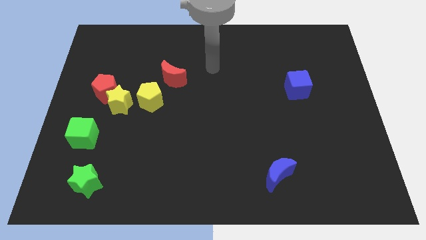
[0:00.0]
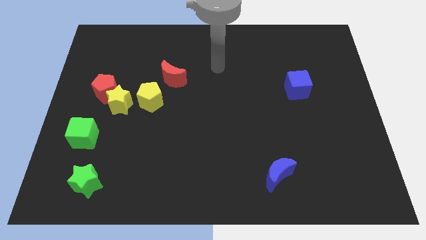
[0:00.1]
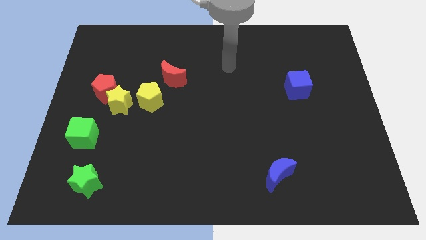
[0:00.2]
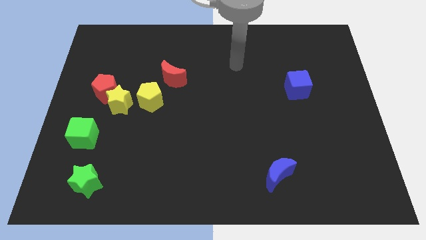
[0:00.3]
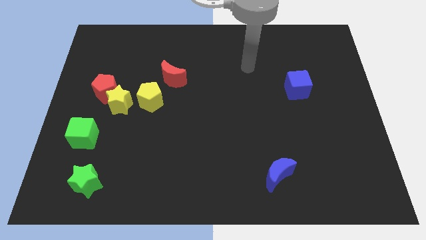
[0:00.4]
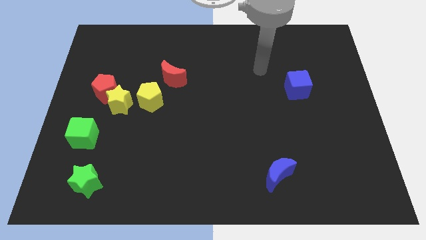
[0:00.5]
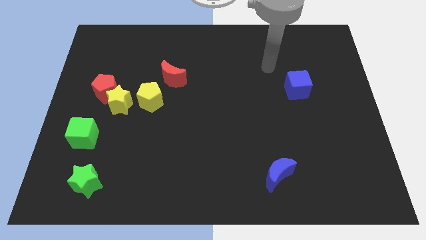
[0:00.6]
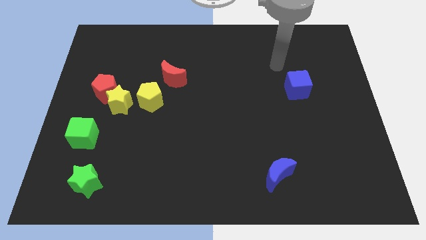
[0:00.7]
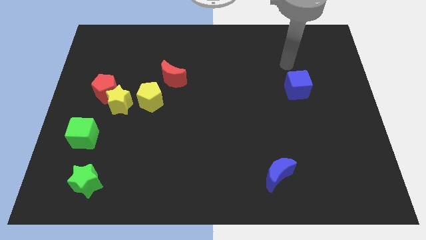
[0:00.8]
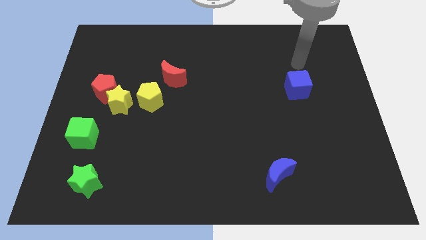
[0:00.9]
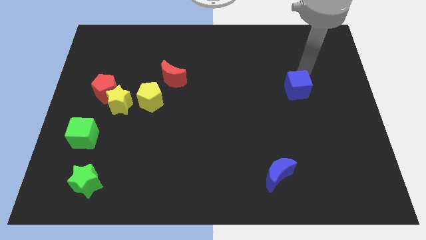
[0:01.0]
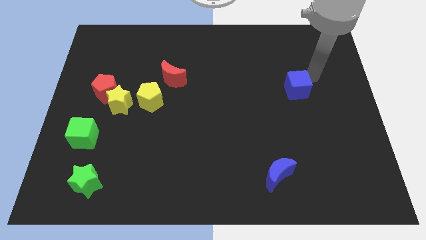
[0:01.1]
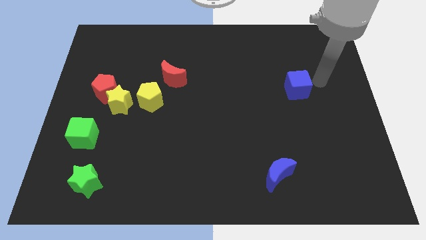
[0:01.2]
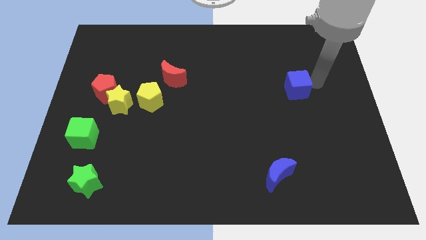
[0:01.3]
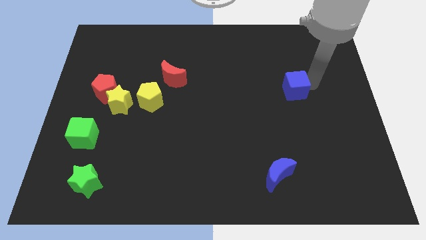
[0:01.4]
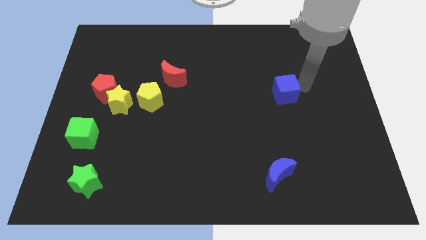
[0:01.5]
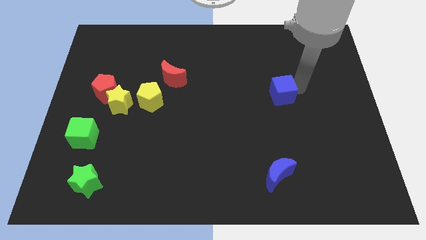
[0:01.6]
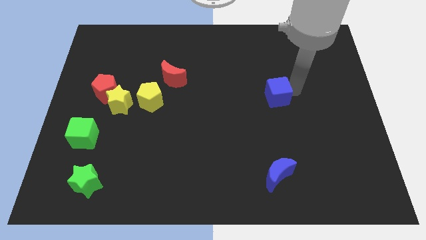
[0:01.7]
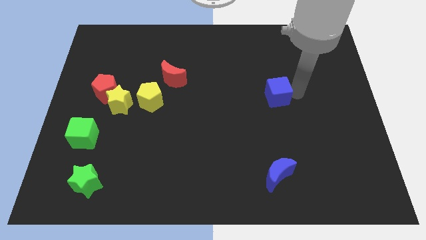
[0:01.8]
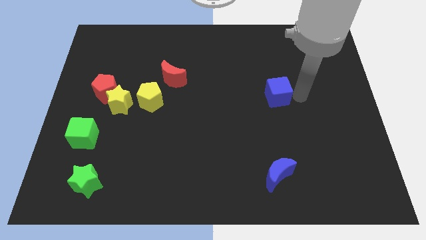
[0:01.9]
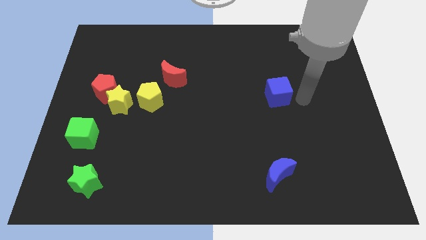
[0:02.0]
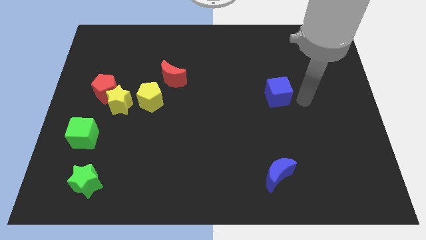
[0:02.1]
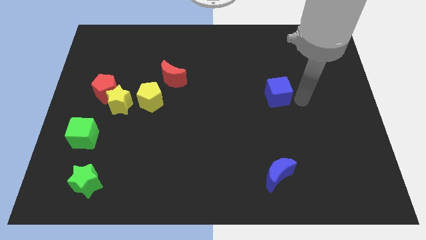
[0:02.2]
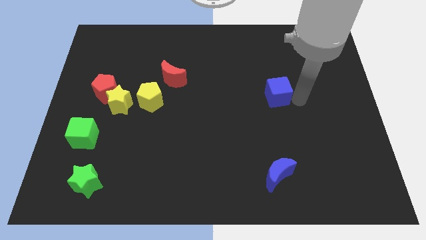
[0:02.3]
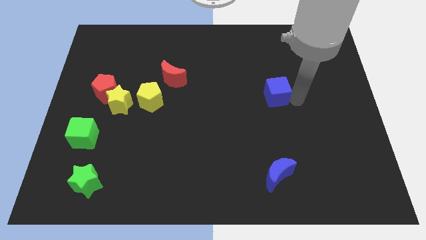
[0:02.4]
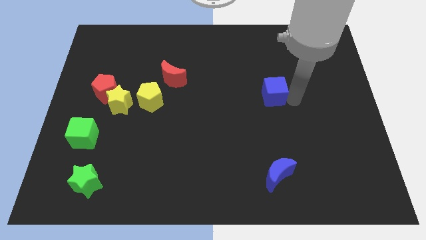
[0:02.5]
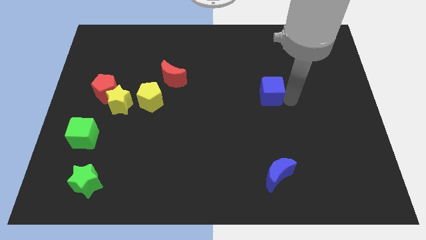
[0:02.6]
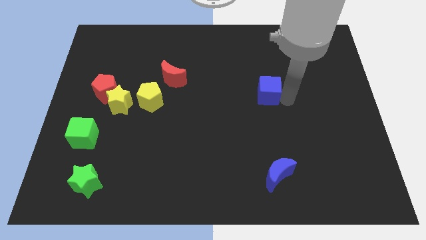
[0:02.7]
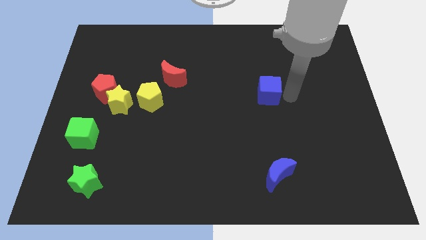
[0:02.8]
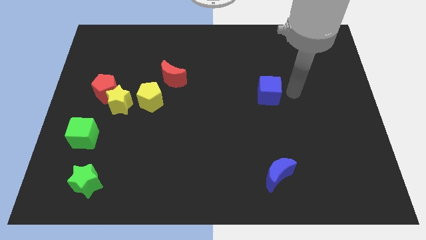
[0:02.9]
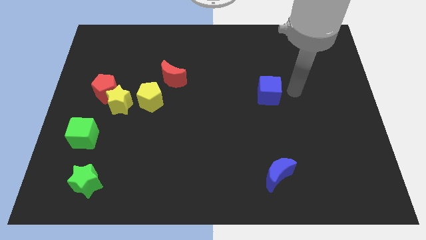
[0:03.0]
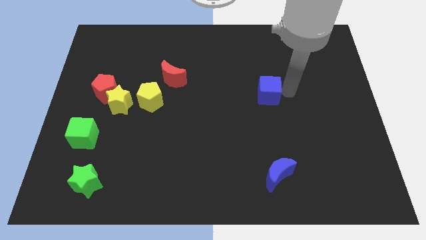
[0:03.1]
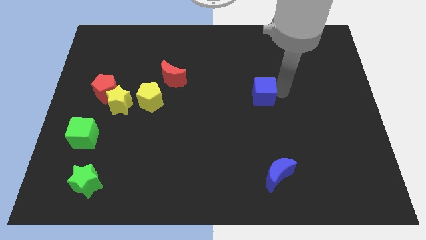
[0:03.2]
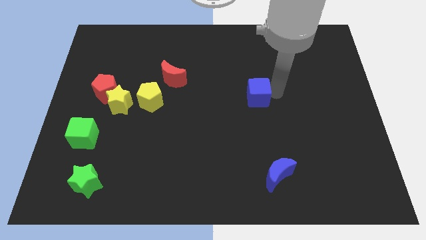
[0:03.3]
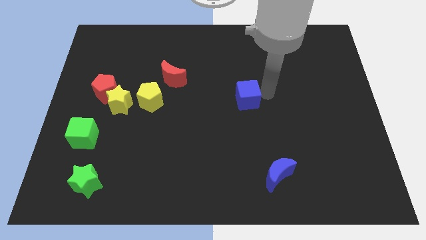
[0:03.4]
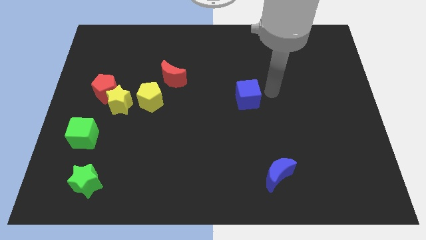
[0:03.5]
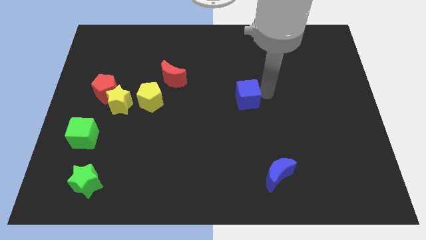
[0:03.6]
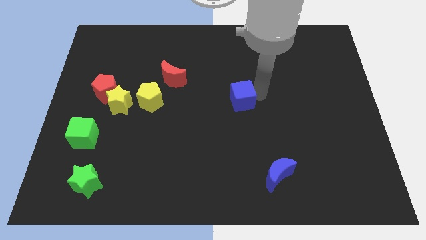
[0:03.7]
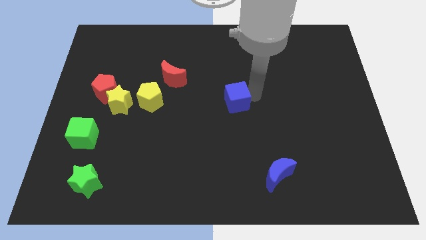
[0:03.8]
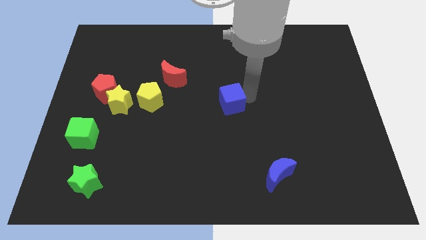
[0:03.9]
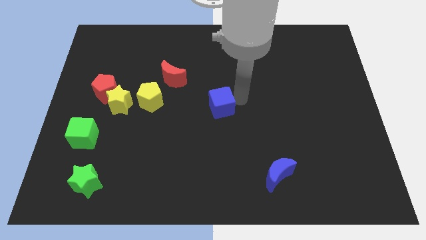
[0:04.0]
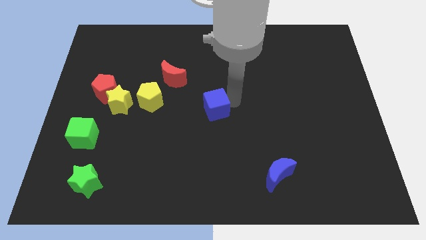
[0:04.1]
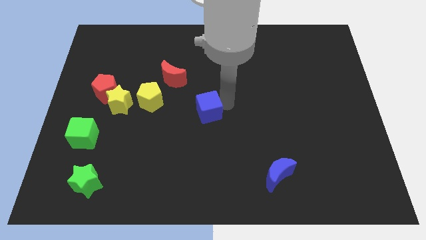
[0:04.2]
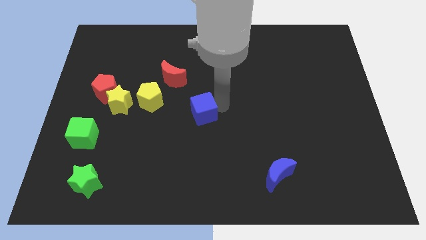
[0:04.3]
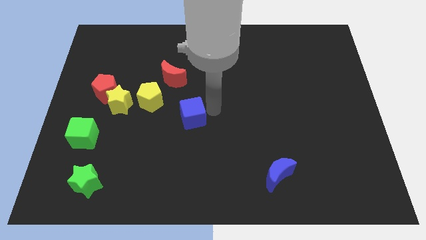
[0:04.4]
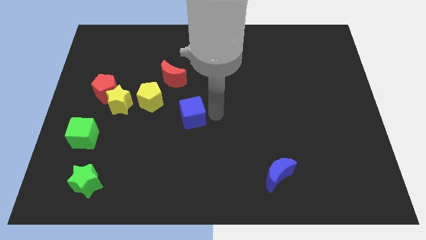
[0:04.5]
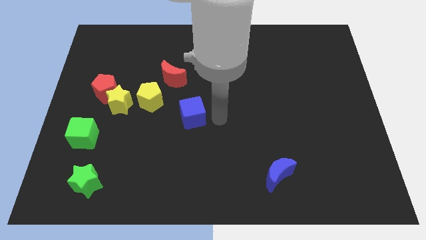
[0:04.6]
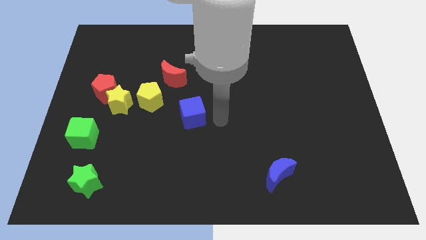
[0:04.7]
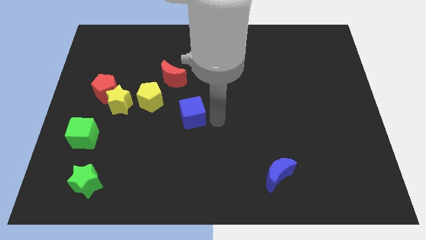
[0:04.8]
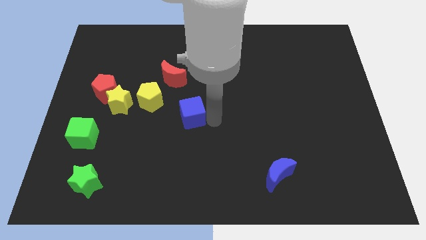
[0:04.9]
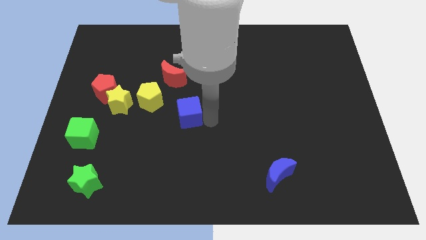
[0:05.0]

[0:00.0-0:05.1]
move the blue cube below the red moon

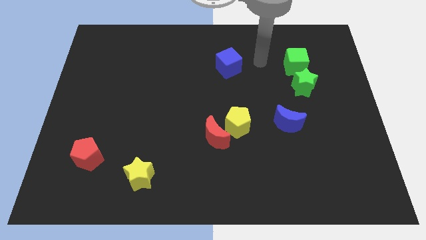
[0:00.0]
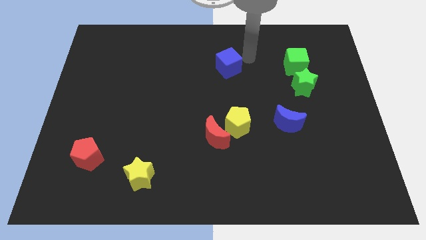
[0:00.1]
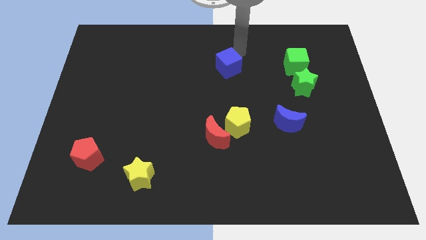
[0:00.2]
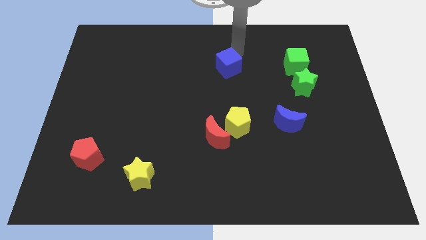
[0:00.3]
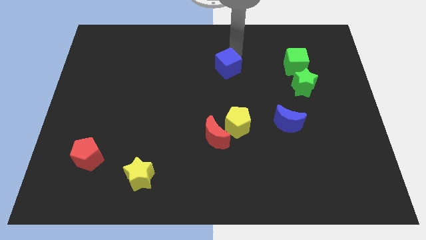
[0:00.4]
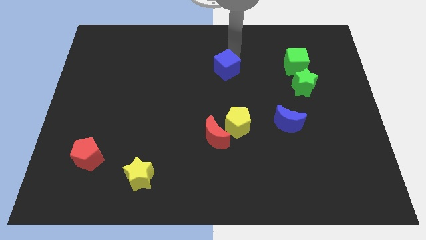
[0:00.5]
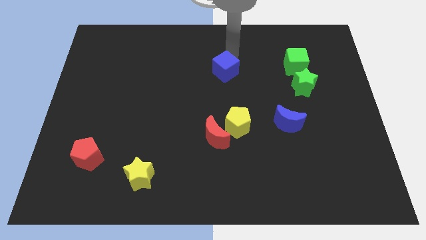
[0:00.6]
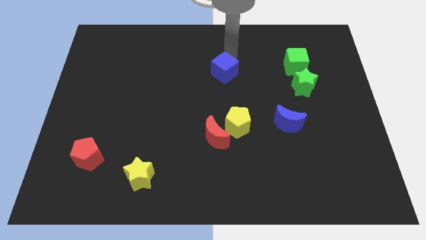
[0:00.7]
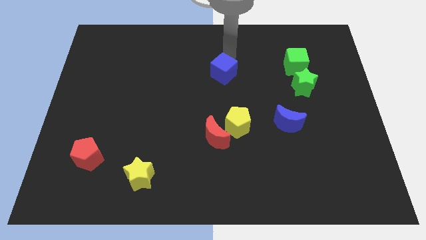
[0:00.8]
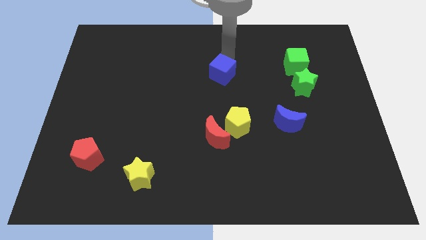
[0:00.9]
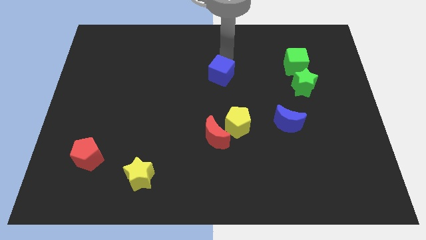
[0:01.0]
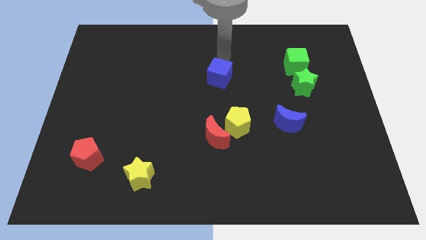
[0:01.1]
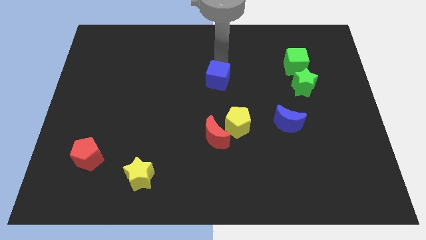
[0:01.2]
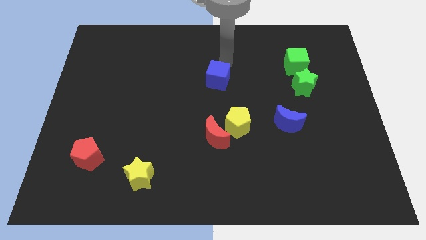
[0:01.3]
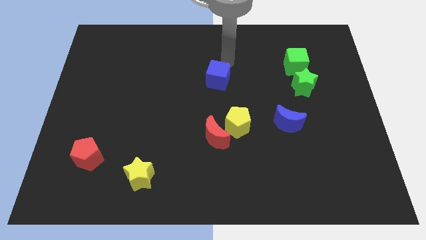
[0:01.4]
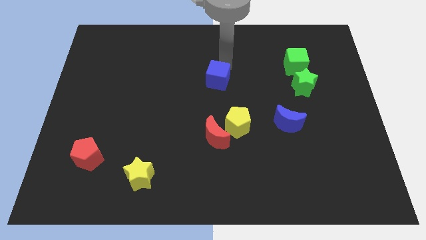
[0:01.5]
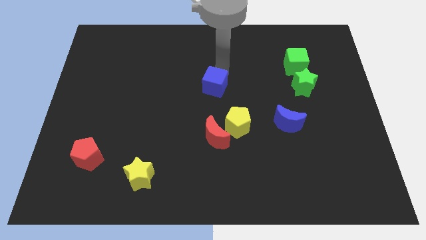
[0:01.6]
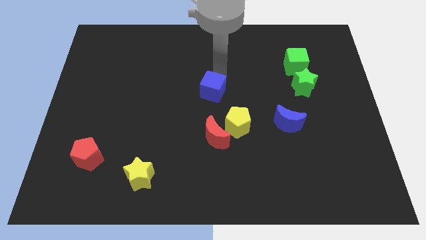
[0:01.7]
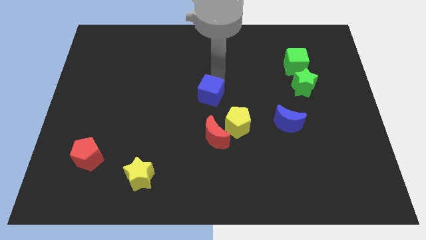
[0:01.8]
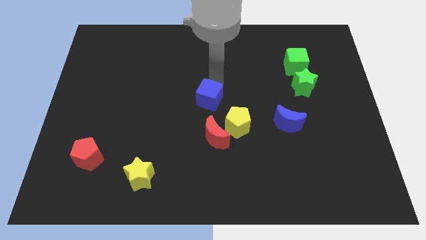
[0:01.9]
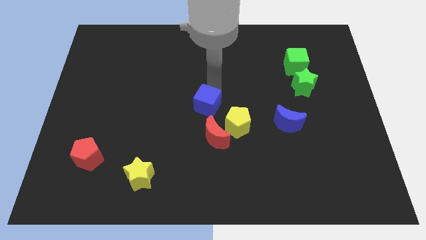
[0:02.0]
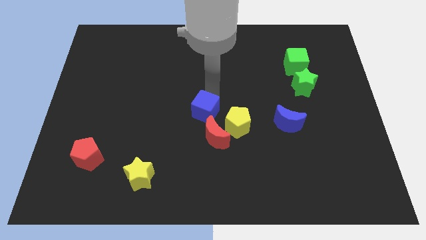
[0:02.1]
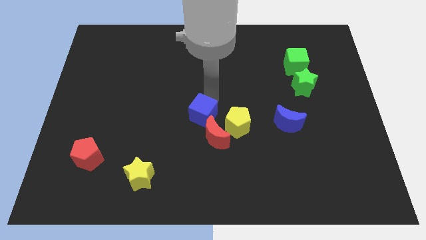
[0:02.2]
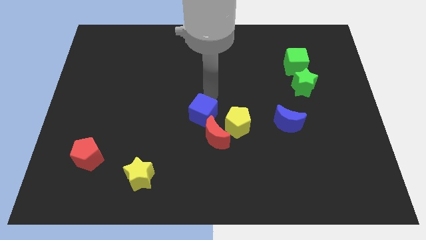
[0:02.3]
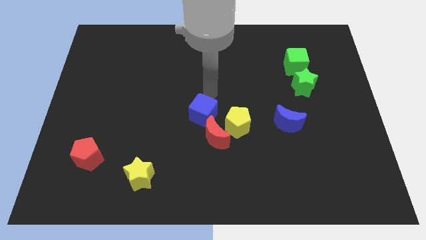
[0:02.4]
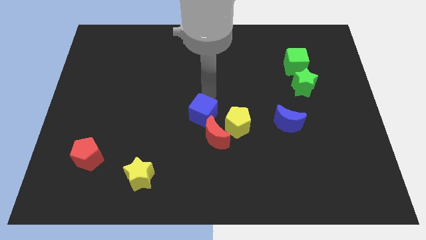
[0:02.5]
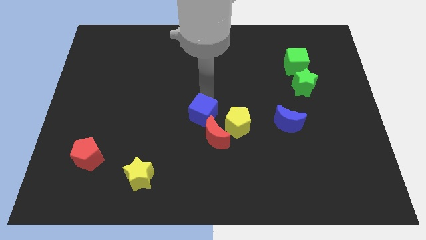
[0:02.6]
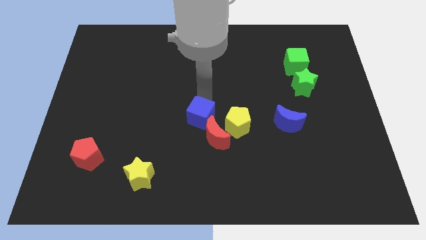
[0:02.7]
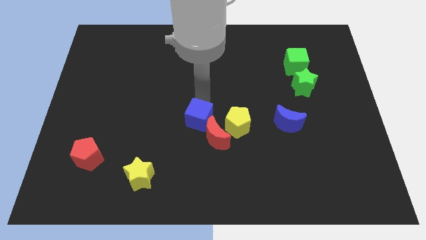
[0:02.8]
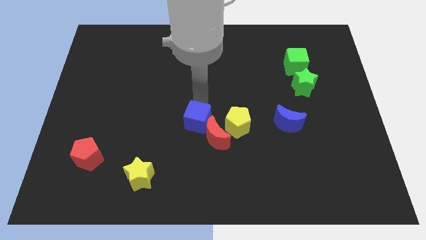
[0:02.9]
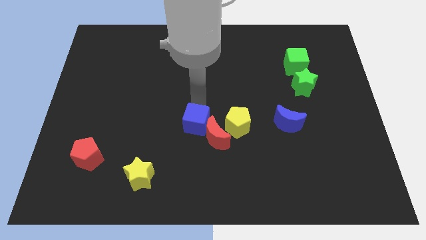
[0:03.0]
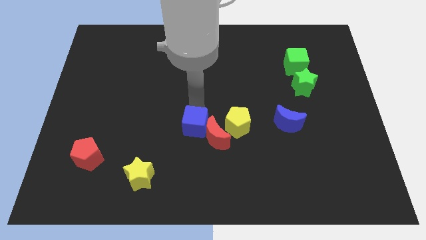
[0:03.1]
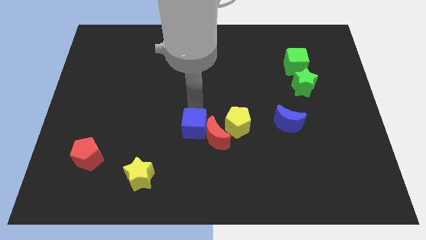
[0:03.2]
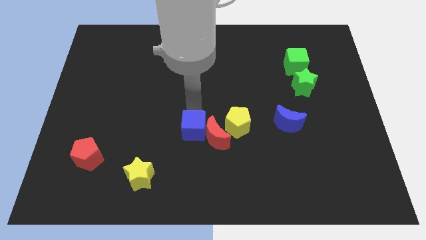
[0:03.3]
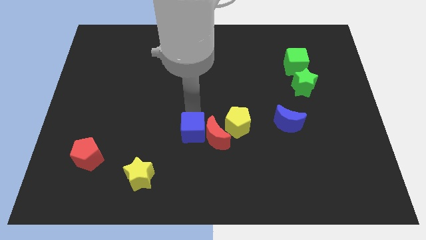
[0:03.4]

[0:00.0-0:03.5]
slide the blue cube to the bottom left side of the red moon
